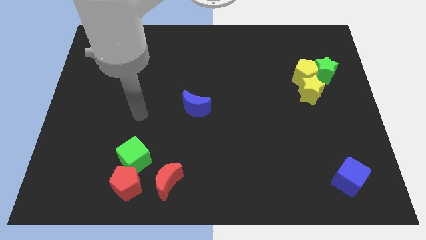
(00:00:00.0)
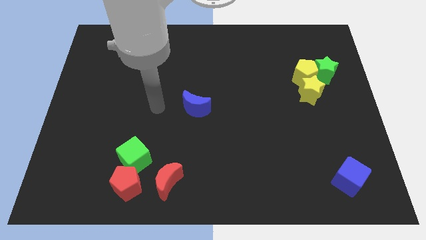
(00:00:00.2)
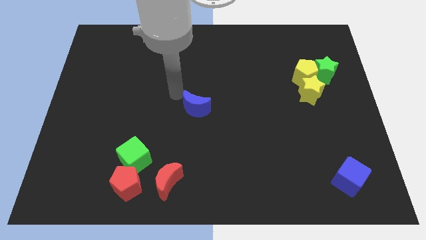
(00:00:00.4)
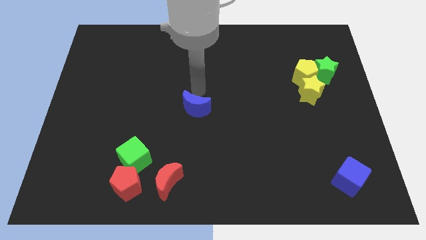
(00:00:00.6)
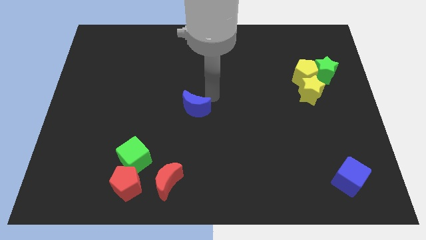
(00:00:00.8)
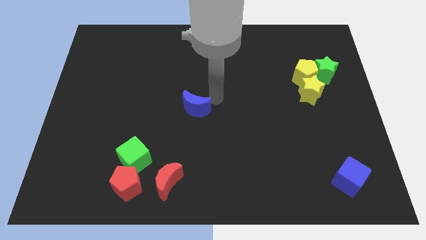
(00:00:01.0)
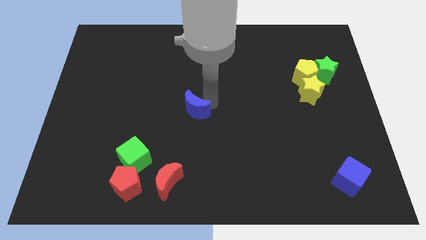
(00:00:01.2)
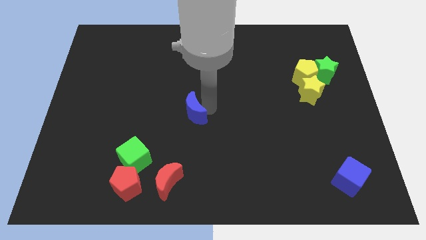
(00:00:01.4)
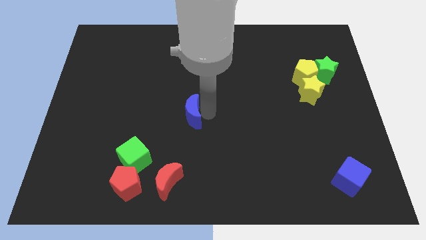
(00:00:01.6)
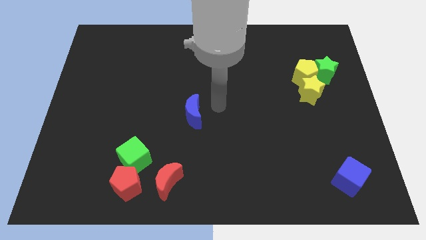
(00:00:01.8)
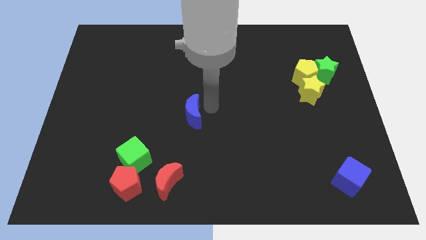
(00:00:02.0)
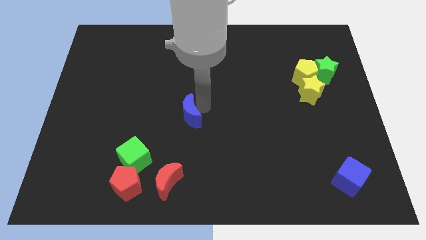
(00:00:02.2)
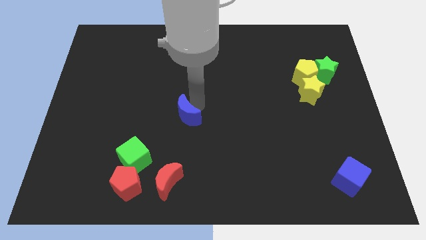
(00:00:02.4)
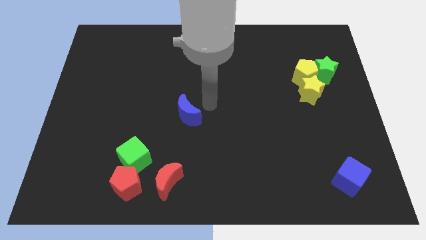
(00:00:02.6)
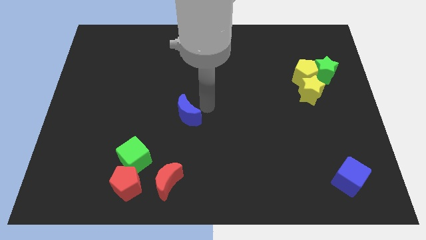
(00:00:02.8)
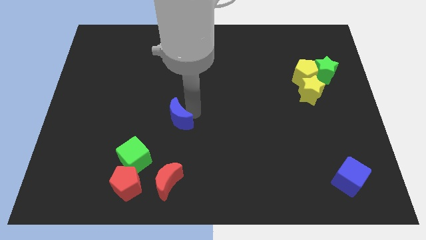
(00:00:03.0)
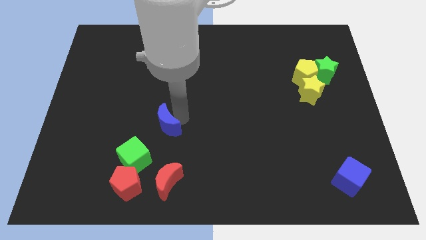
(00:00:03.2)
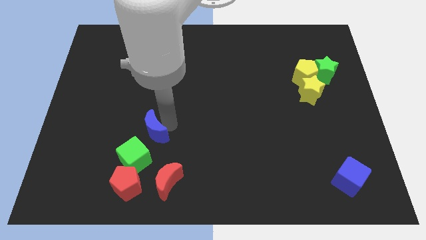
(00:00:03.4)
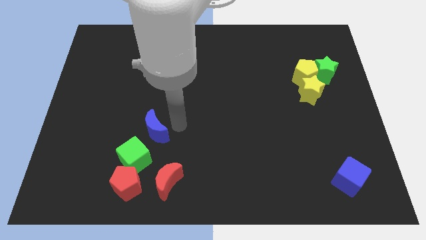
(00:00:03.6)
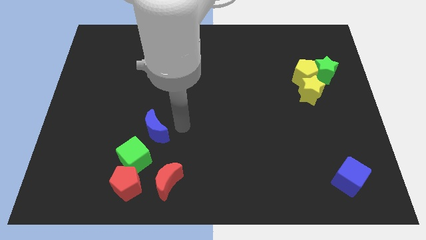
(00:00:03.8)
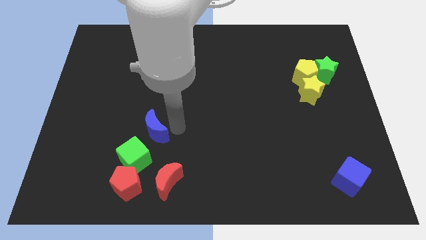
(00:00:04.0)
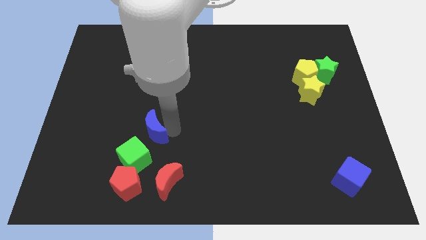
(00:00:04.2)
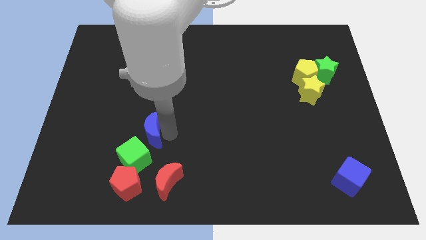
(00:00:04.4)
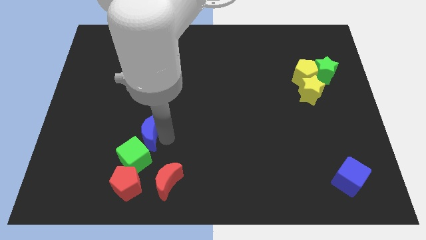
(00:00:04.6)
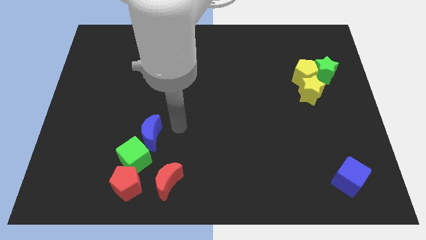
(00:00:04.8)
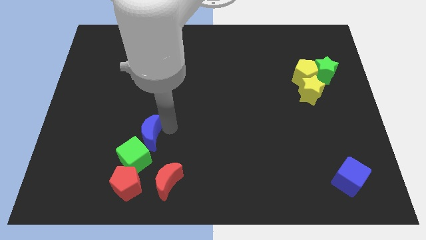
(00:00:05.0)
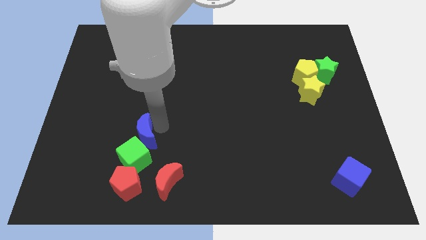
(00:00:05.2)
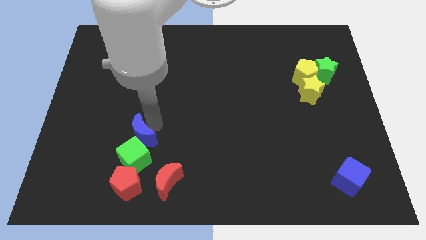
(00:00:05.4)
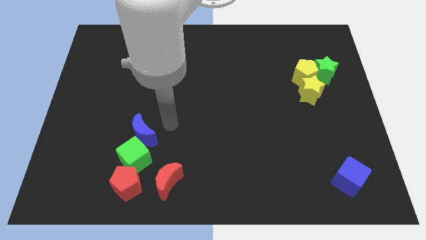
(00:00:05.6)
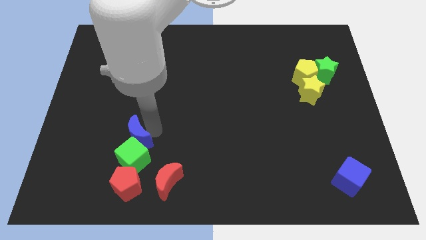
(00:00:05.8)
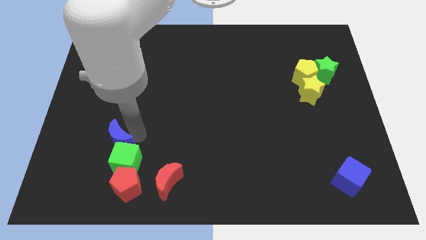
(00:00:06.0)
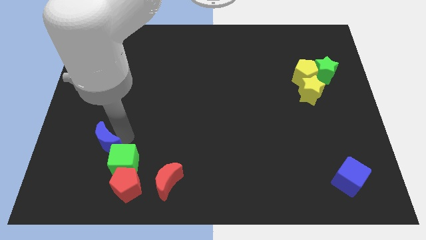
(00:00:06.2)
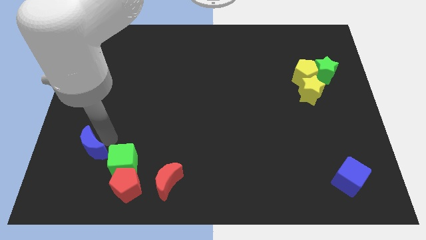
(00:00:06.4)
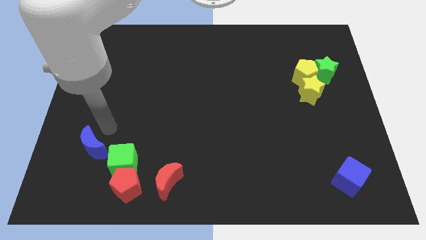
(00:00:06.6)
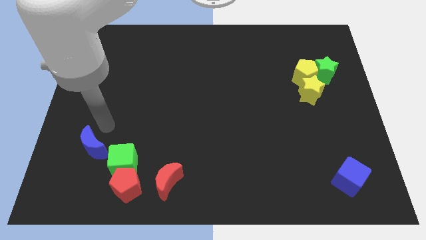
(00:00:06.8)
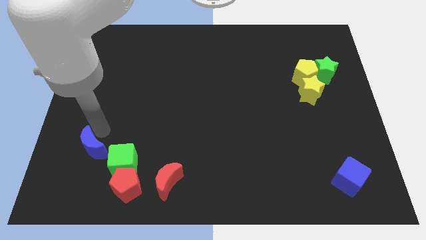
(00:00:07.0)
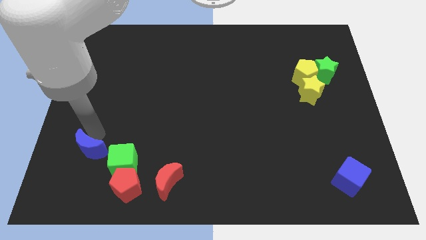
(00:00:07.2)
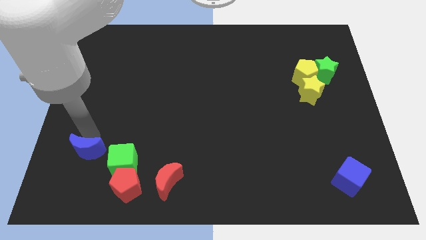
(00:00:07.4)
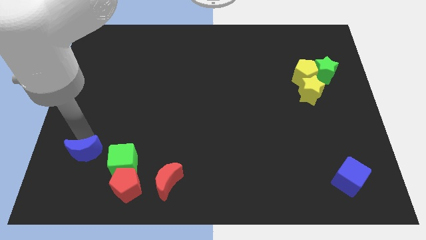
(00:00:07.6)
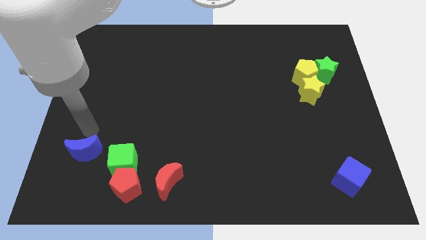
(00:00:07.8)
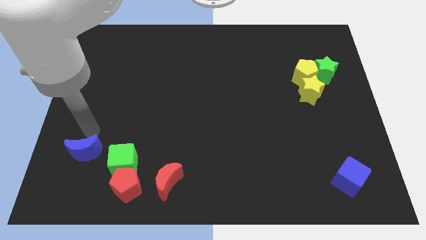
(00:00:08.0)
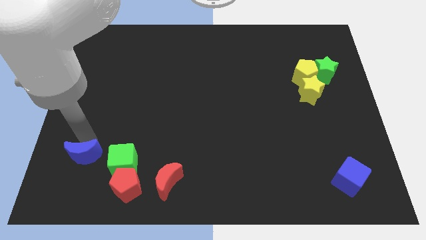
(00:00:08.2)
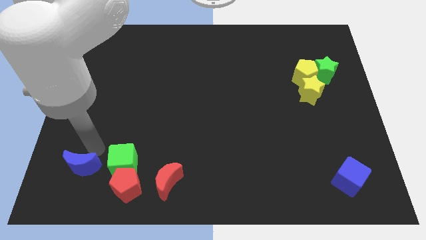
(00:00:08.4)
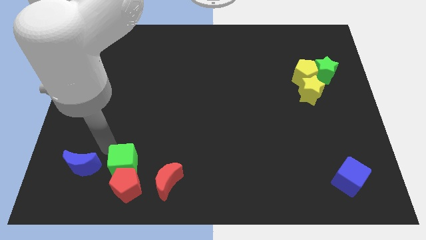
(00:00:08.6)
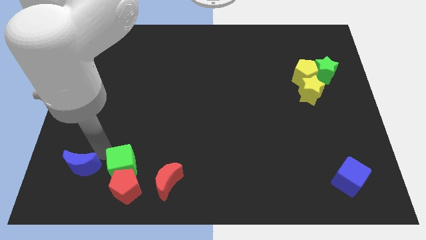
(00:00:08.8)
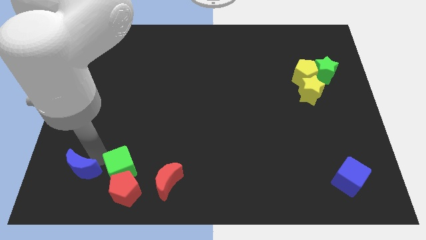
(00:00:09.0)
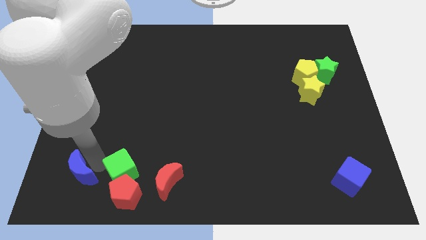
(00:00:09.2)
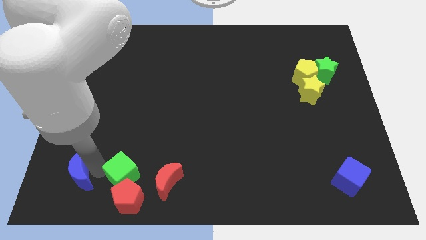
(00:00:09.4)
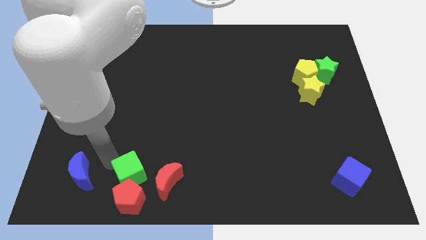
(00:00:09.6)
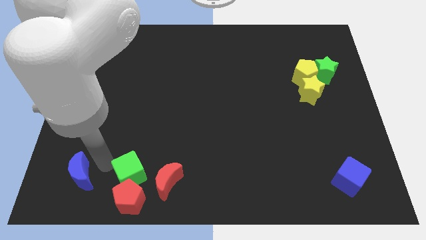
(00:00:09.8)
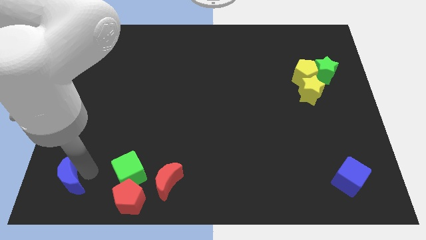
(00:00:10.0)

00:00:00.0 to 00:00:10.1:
push the blue moon to the bottom left corner

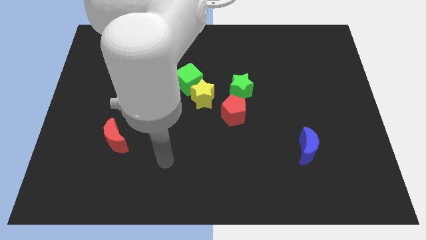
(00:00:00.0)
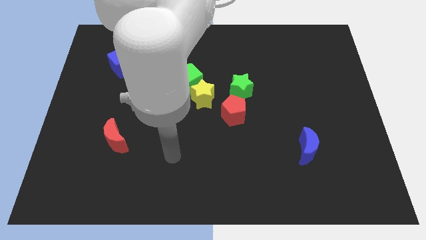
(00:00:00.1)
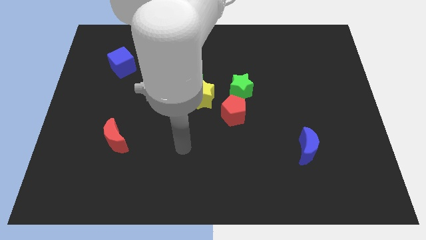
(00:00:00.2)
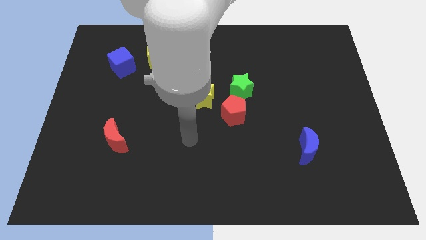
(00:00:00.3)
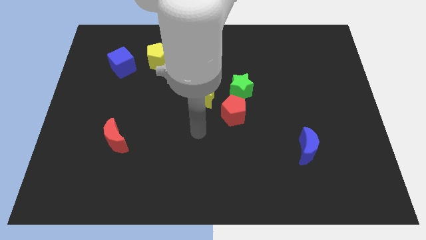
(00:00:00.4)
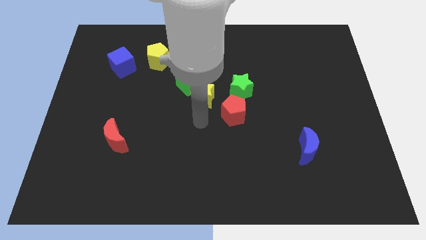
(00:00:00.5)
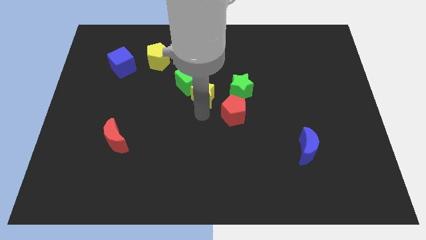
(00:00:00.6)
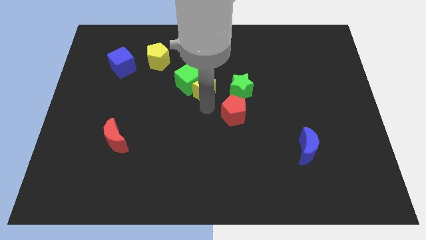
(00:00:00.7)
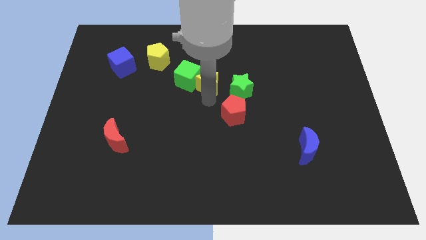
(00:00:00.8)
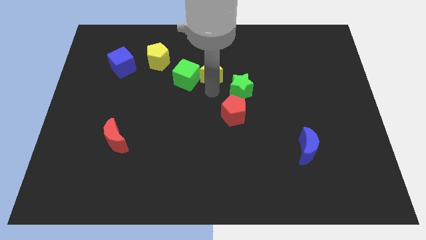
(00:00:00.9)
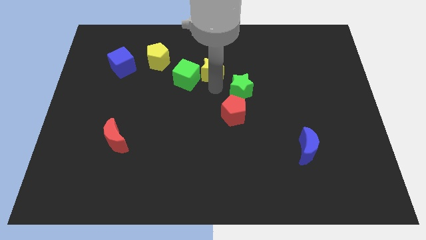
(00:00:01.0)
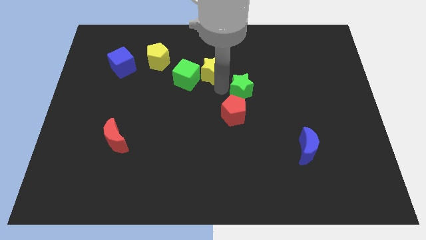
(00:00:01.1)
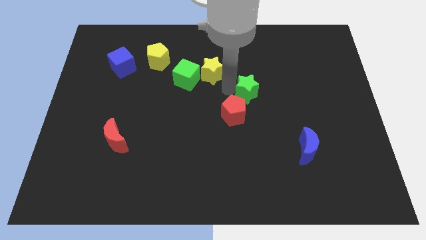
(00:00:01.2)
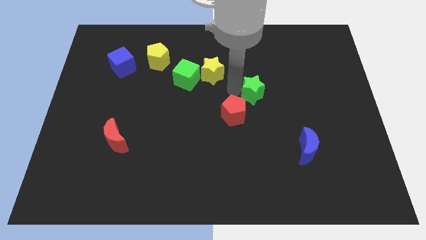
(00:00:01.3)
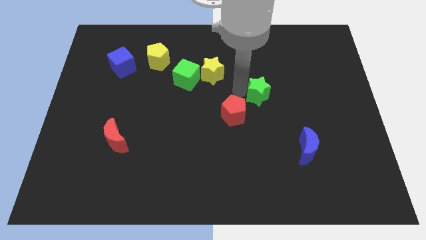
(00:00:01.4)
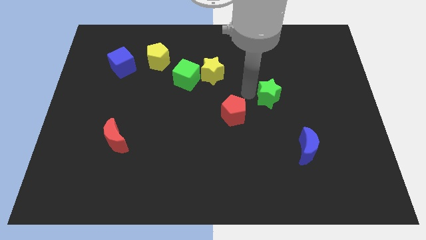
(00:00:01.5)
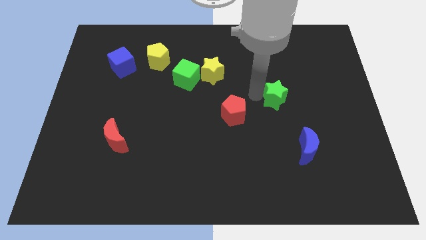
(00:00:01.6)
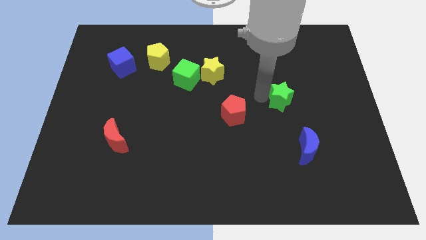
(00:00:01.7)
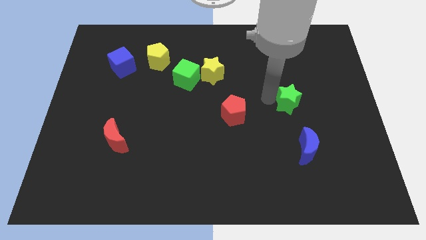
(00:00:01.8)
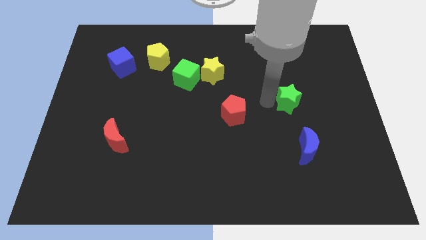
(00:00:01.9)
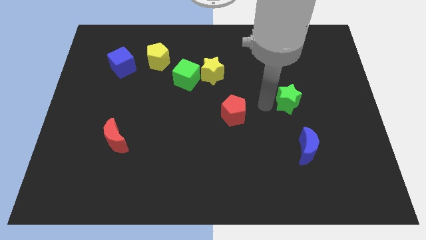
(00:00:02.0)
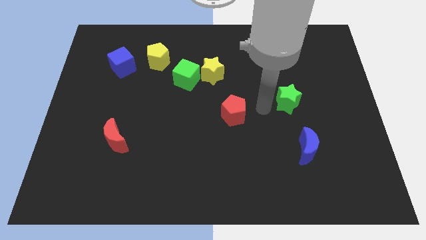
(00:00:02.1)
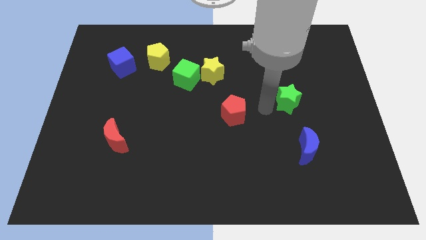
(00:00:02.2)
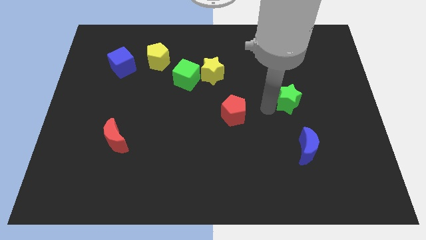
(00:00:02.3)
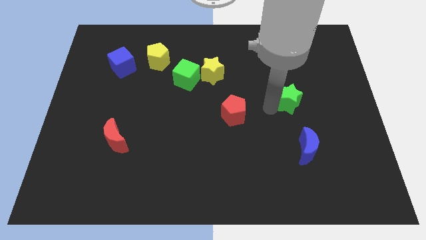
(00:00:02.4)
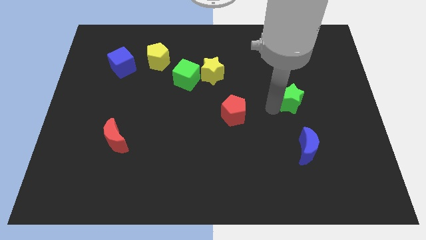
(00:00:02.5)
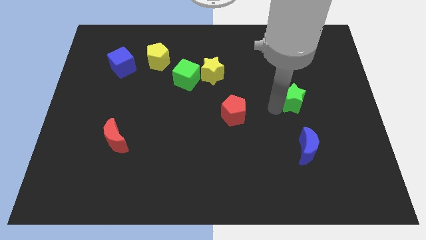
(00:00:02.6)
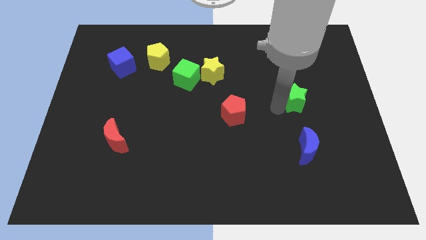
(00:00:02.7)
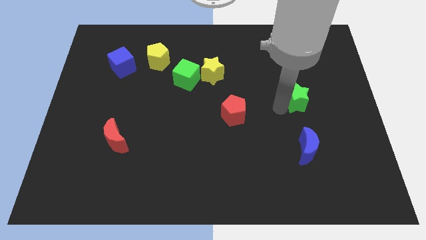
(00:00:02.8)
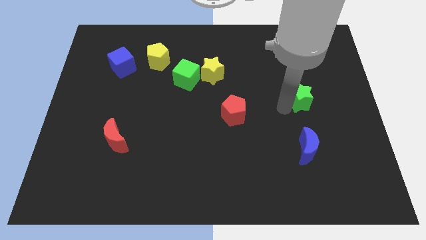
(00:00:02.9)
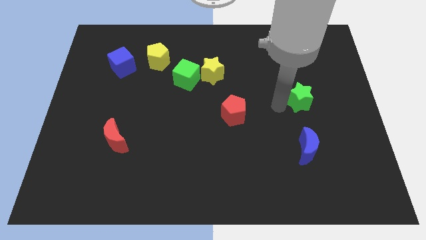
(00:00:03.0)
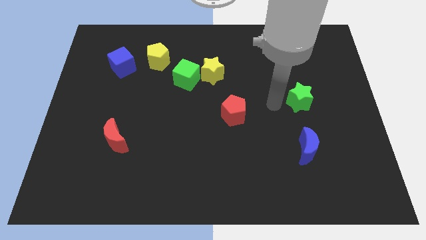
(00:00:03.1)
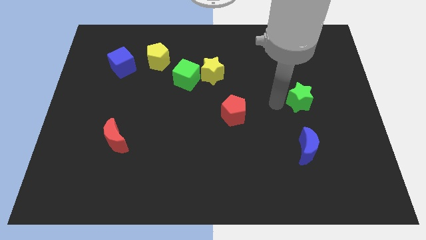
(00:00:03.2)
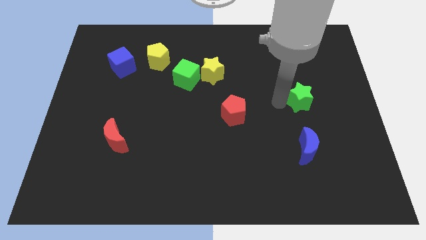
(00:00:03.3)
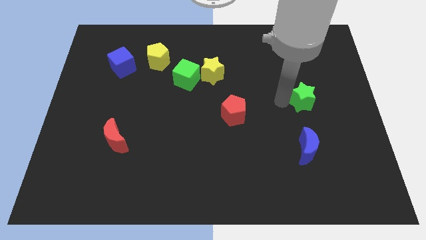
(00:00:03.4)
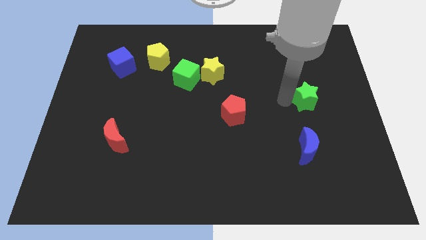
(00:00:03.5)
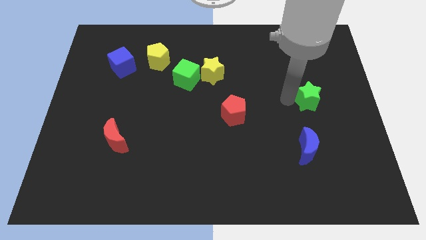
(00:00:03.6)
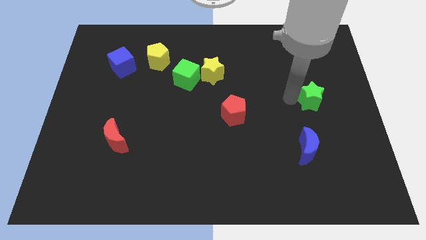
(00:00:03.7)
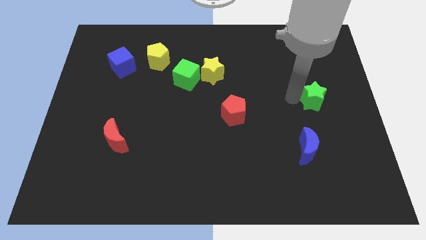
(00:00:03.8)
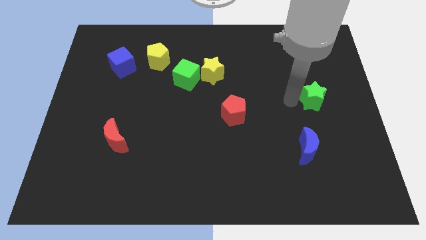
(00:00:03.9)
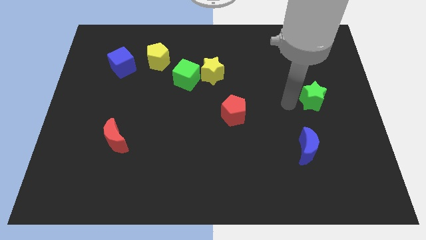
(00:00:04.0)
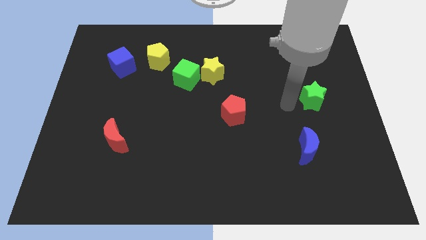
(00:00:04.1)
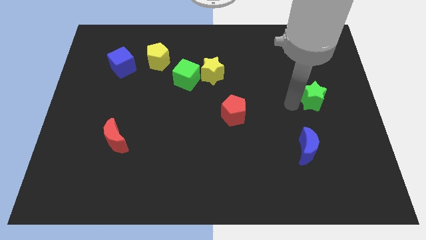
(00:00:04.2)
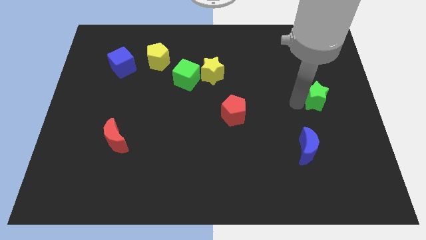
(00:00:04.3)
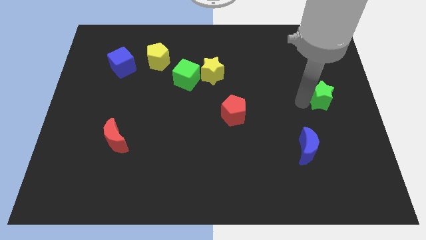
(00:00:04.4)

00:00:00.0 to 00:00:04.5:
push the green star to the right side of the board
